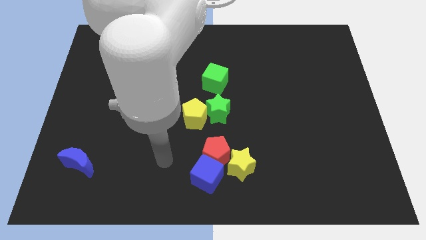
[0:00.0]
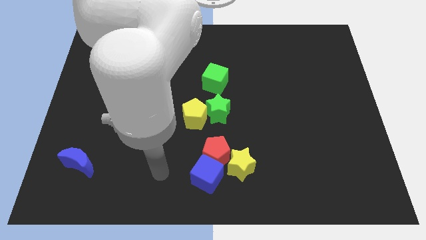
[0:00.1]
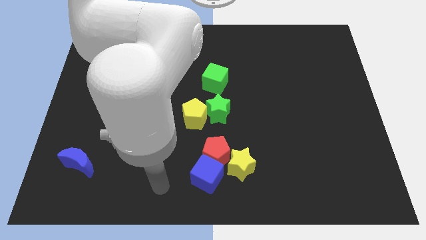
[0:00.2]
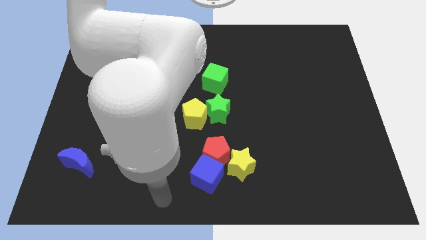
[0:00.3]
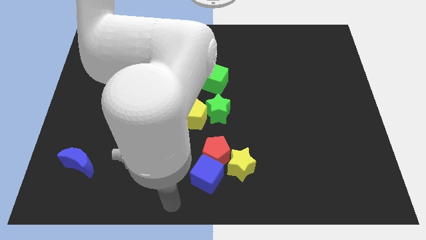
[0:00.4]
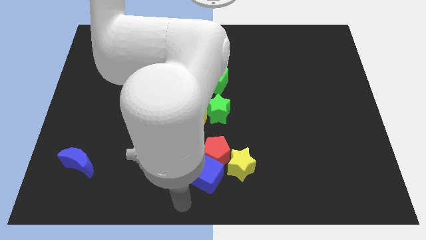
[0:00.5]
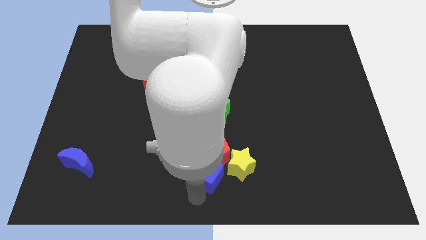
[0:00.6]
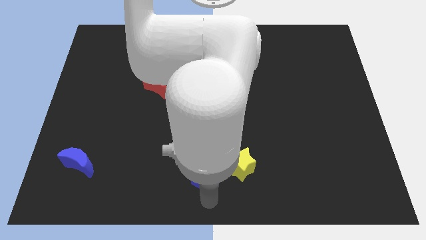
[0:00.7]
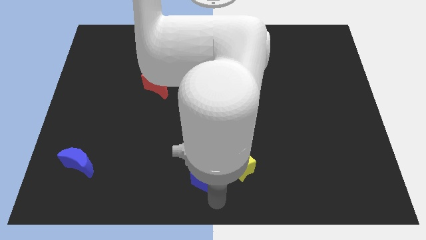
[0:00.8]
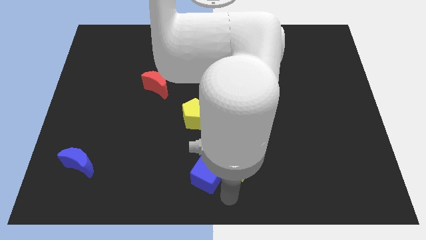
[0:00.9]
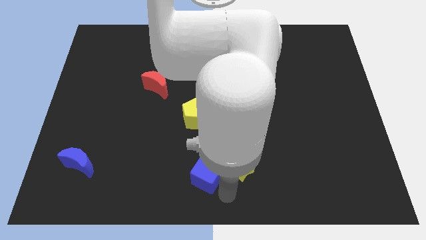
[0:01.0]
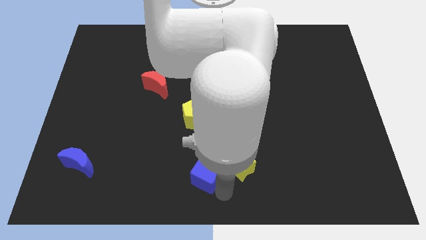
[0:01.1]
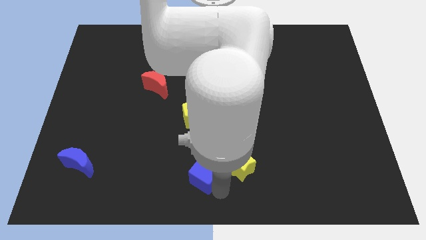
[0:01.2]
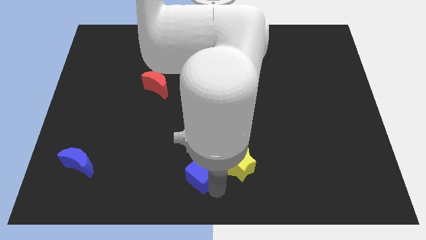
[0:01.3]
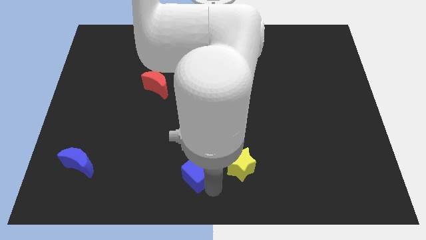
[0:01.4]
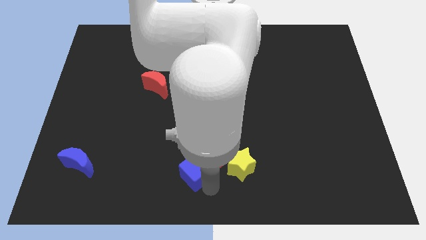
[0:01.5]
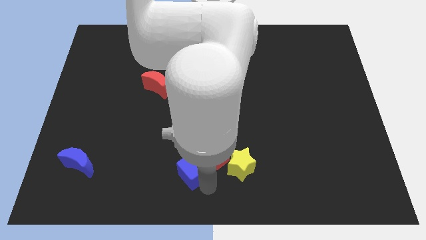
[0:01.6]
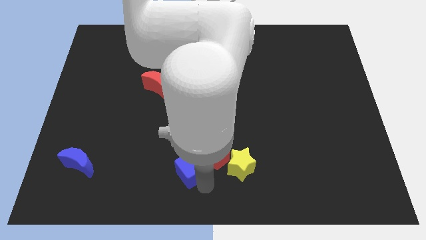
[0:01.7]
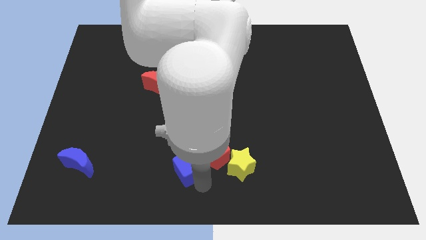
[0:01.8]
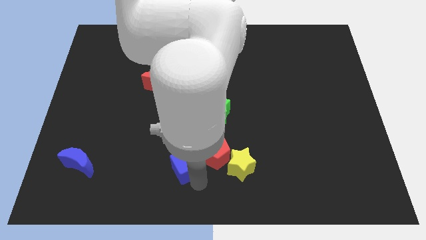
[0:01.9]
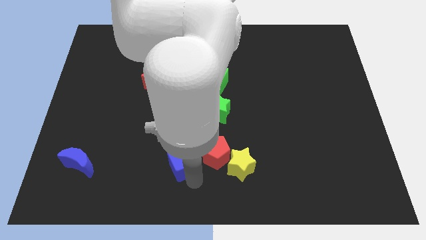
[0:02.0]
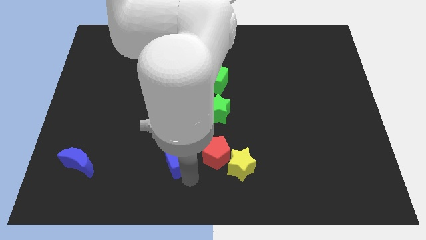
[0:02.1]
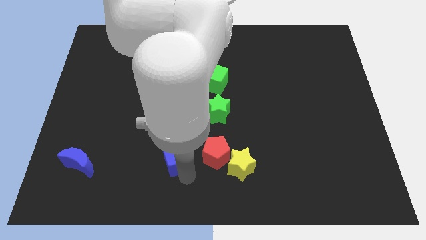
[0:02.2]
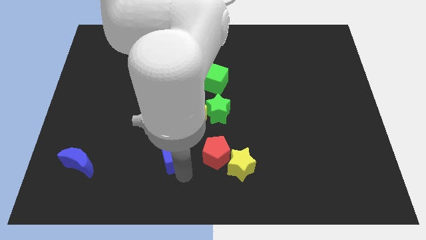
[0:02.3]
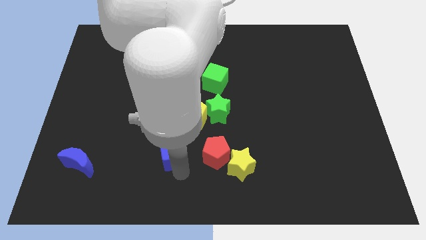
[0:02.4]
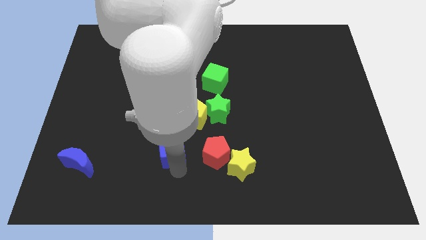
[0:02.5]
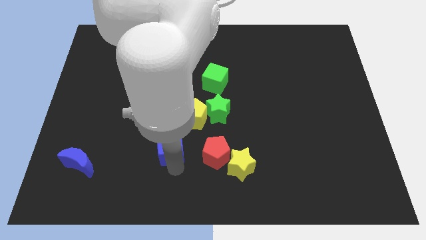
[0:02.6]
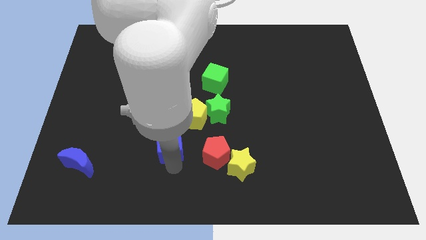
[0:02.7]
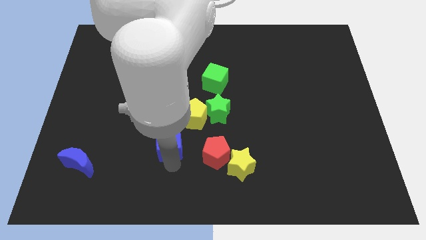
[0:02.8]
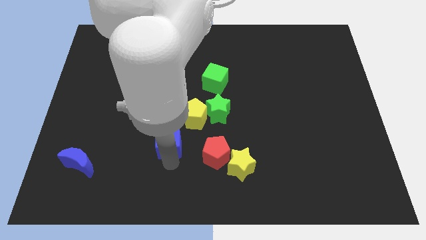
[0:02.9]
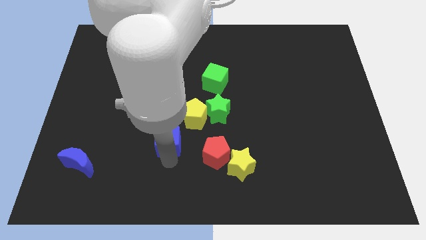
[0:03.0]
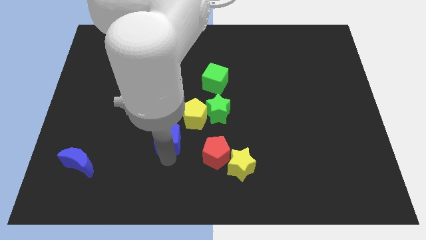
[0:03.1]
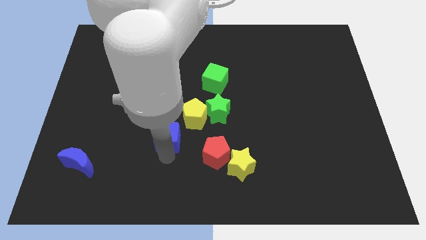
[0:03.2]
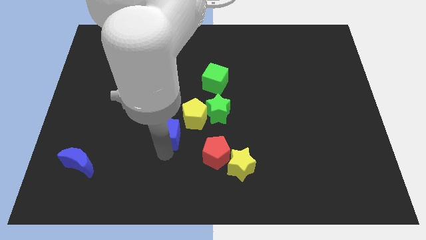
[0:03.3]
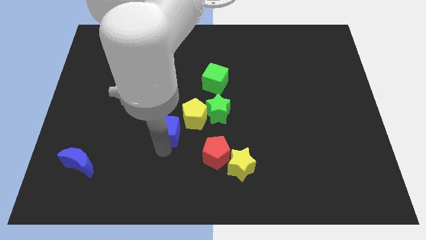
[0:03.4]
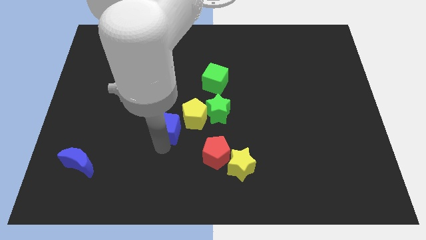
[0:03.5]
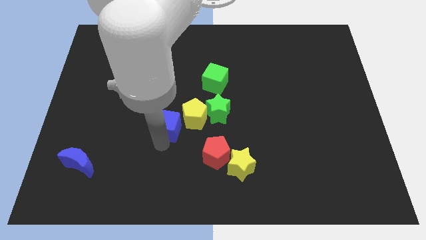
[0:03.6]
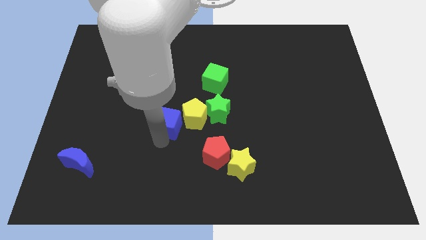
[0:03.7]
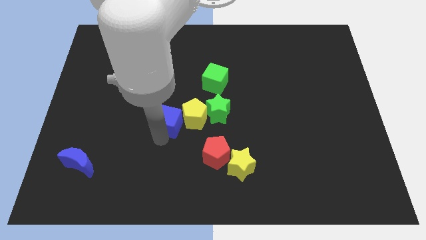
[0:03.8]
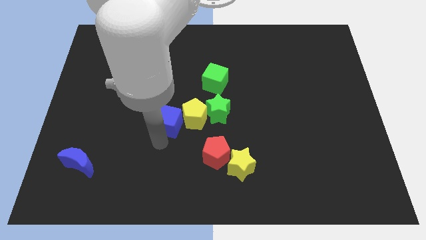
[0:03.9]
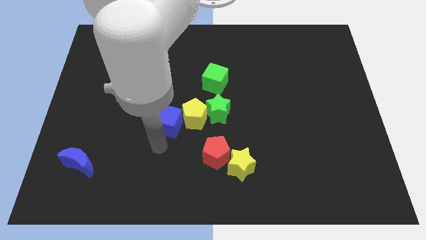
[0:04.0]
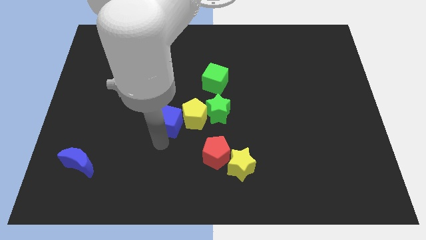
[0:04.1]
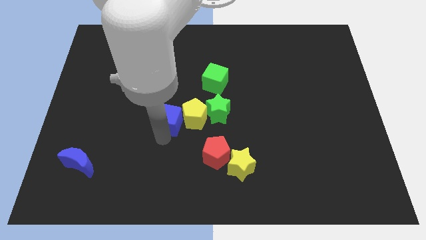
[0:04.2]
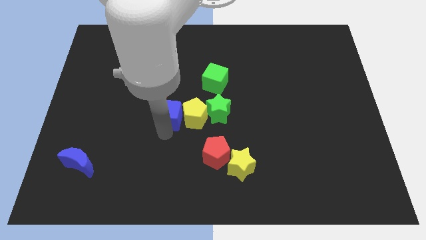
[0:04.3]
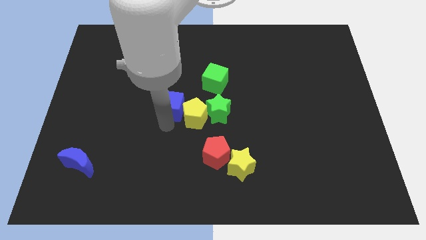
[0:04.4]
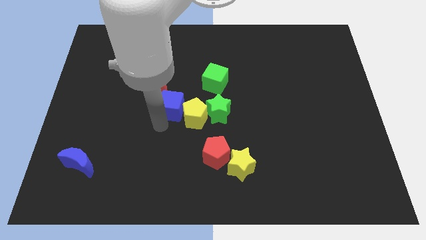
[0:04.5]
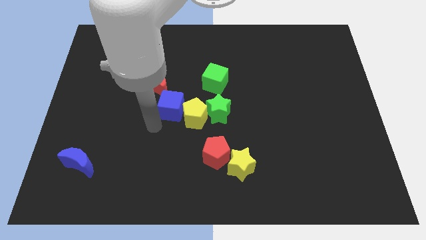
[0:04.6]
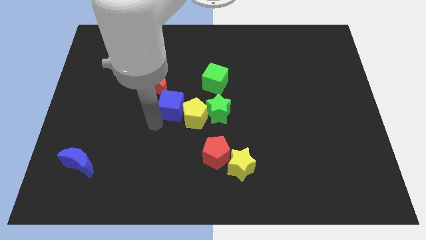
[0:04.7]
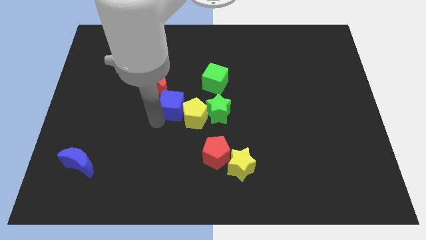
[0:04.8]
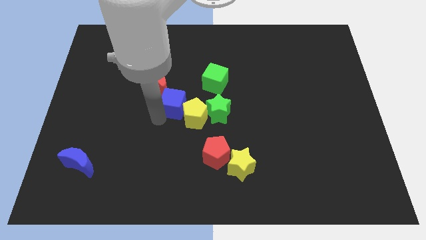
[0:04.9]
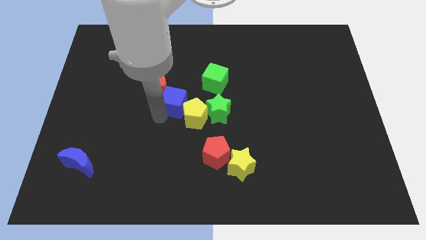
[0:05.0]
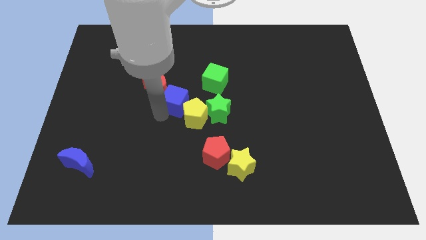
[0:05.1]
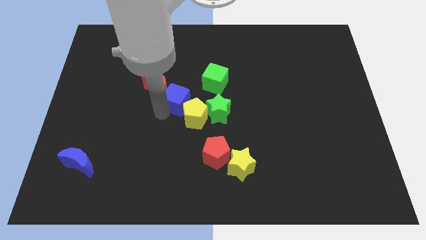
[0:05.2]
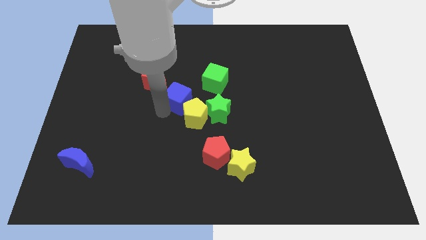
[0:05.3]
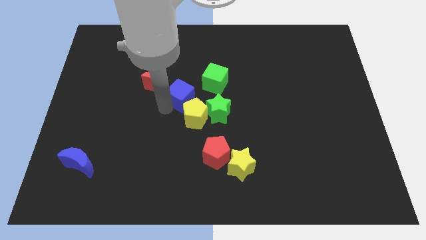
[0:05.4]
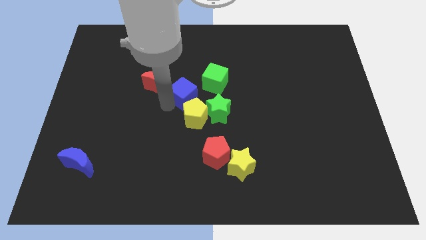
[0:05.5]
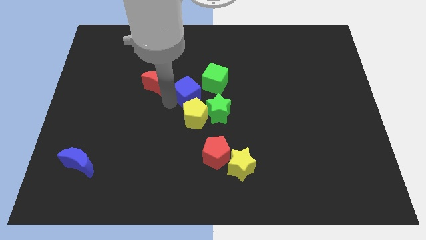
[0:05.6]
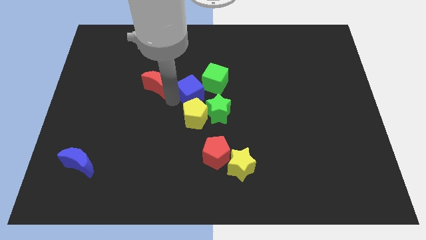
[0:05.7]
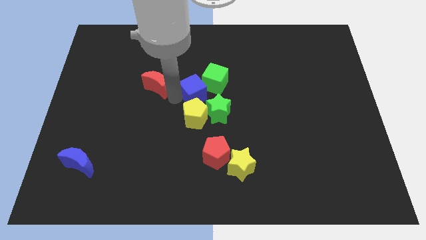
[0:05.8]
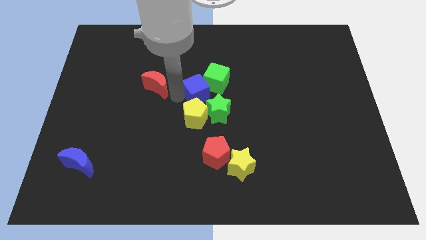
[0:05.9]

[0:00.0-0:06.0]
move the blue cube close to the green cube

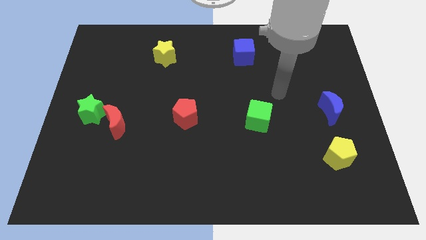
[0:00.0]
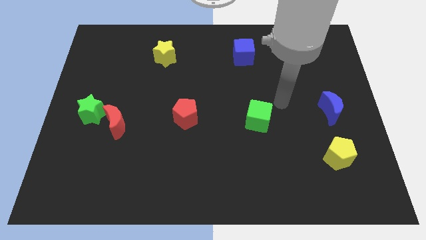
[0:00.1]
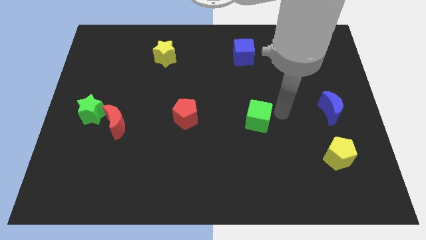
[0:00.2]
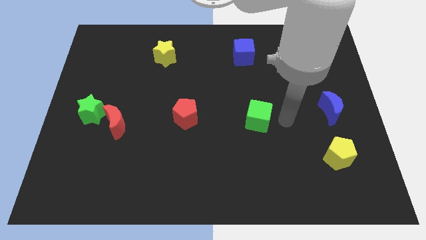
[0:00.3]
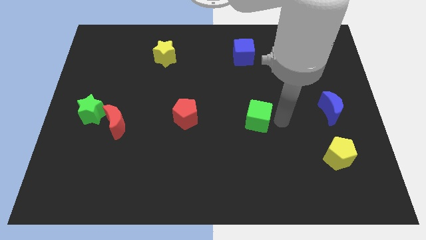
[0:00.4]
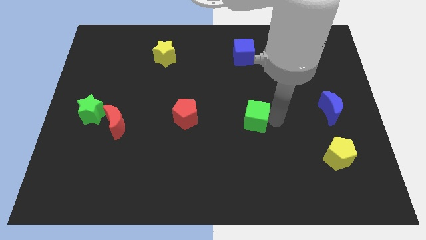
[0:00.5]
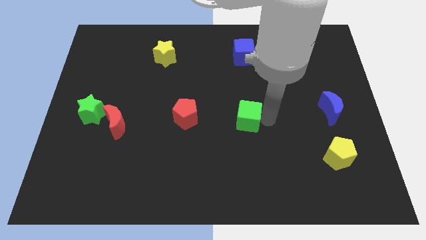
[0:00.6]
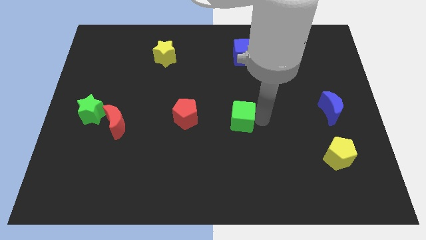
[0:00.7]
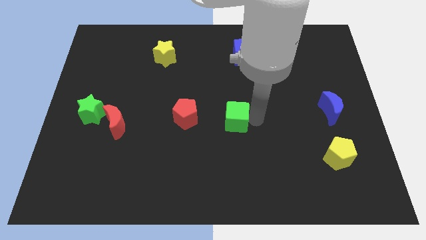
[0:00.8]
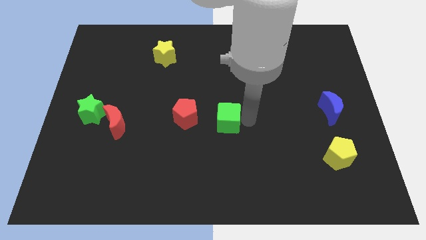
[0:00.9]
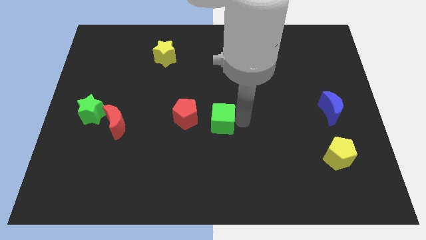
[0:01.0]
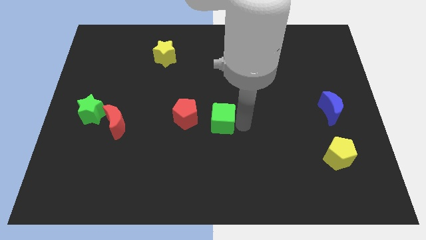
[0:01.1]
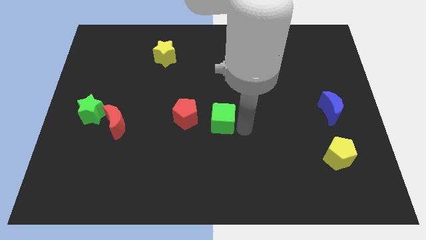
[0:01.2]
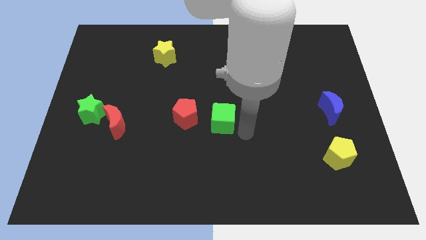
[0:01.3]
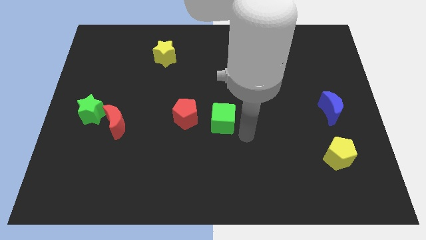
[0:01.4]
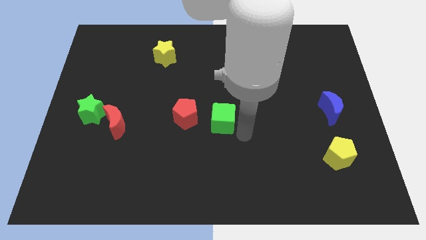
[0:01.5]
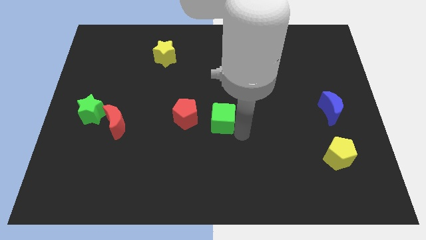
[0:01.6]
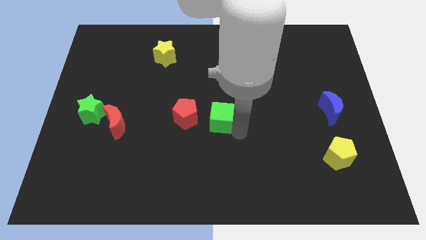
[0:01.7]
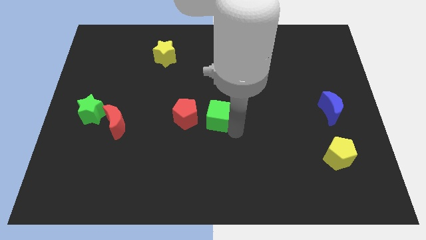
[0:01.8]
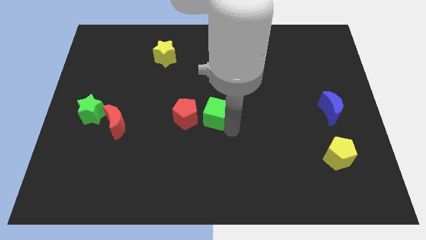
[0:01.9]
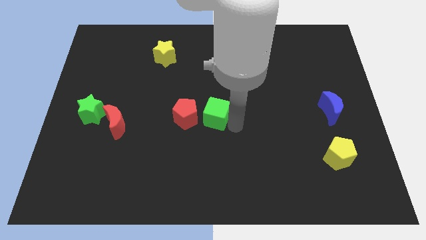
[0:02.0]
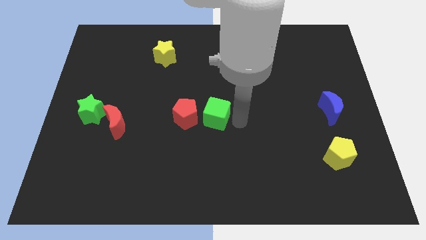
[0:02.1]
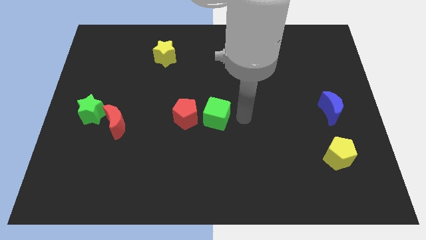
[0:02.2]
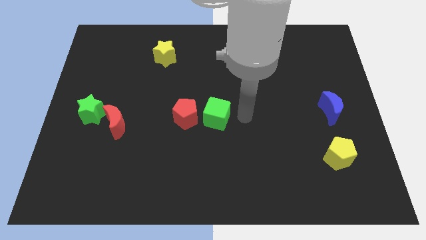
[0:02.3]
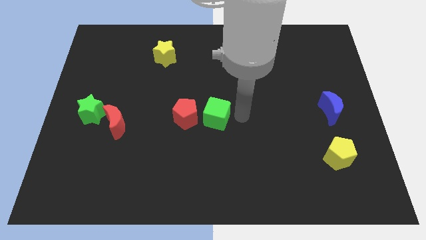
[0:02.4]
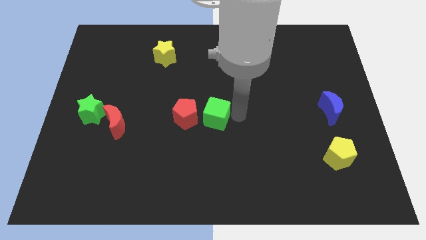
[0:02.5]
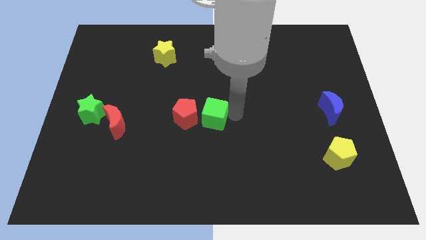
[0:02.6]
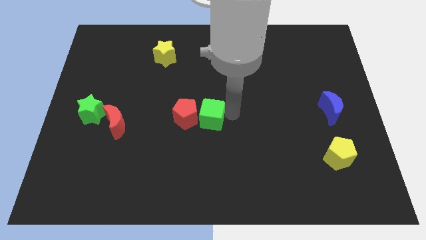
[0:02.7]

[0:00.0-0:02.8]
put the green cube next to the red pentagon
